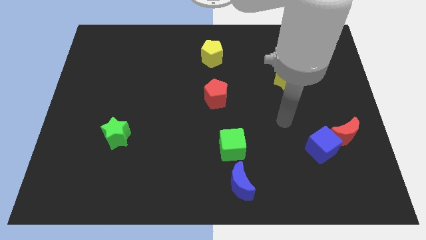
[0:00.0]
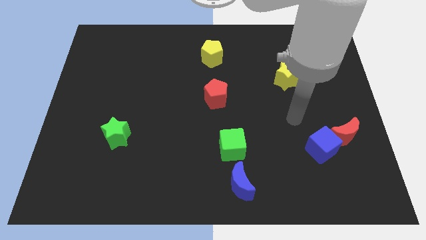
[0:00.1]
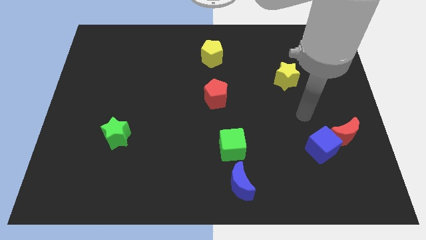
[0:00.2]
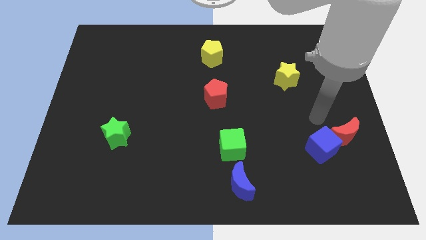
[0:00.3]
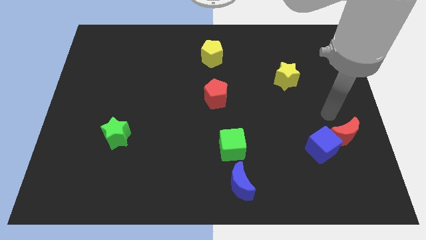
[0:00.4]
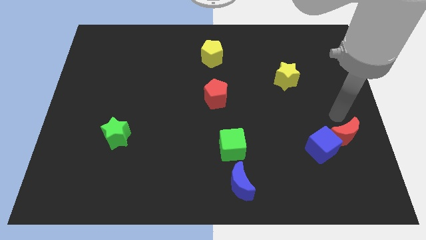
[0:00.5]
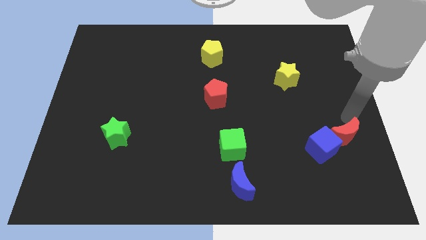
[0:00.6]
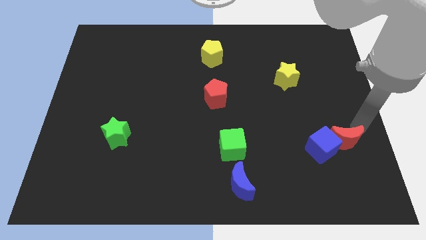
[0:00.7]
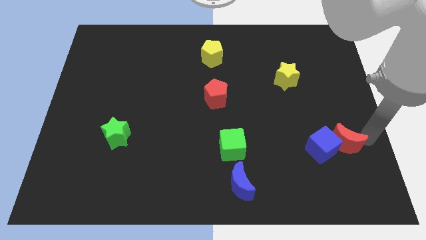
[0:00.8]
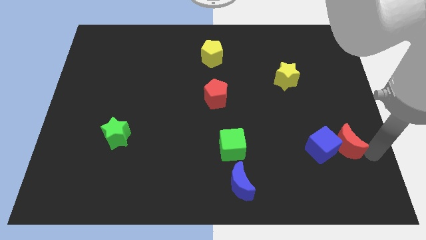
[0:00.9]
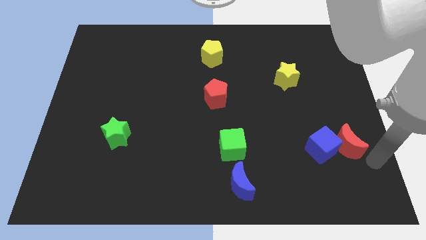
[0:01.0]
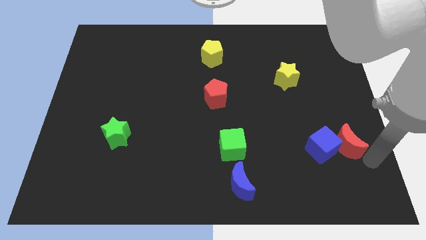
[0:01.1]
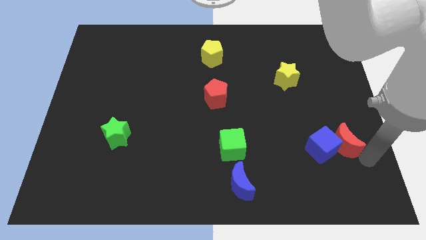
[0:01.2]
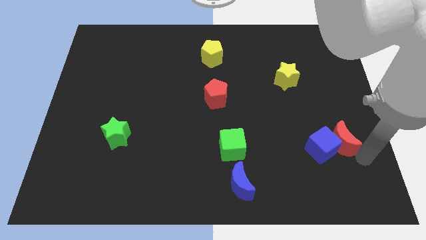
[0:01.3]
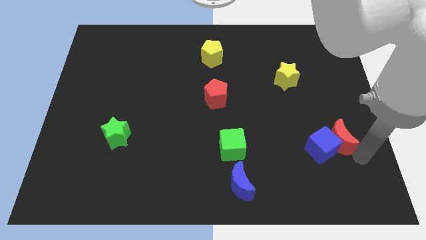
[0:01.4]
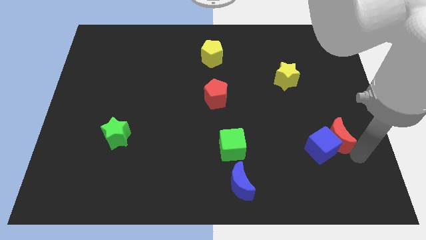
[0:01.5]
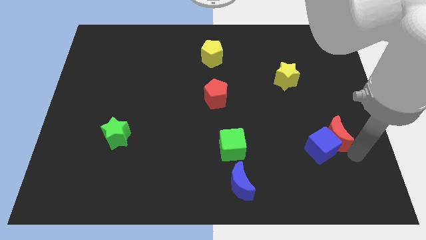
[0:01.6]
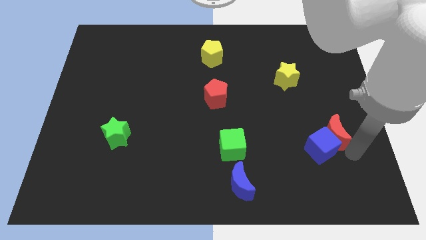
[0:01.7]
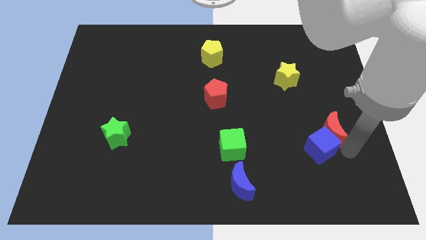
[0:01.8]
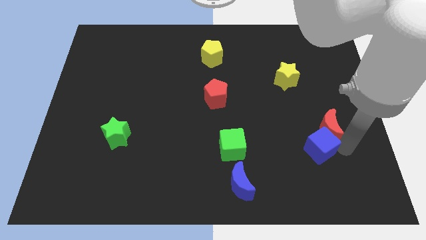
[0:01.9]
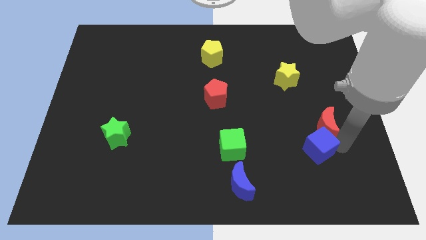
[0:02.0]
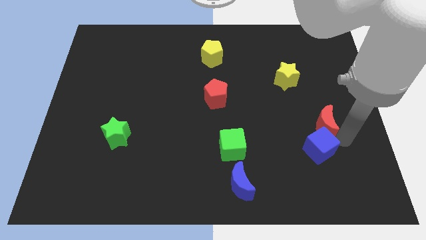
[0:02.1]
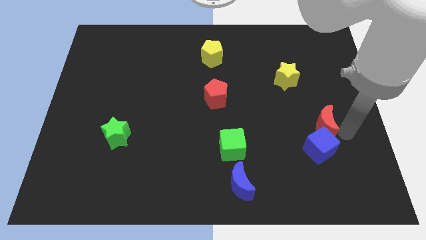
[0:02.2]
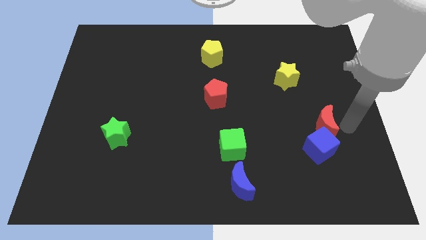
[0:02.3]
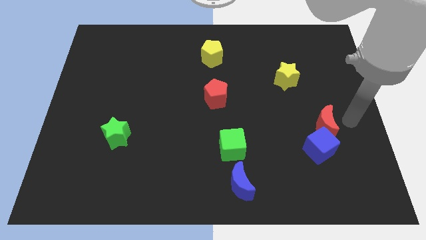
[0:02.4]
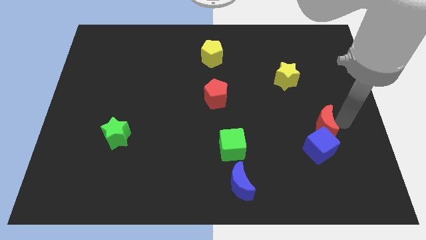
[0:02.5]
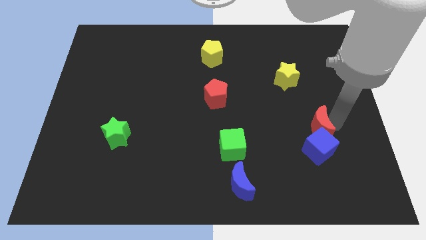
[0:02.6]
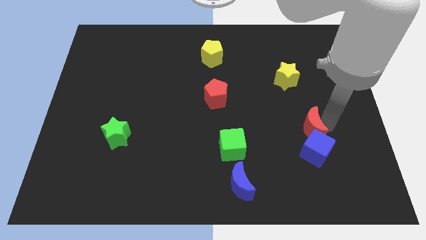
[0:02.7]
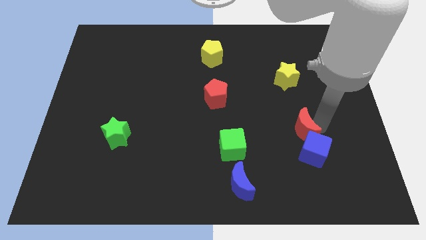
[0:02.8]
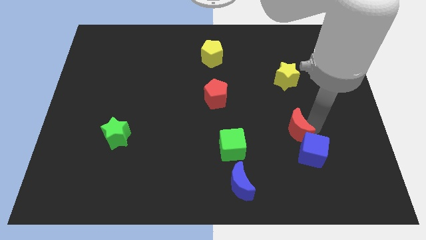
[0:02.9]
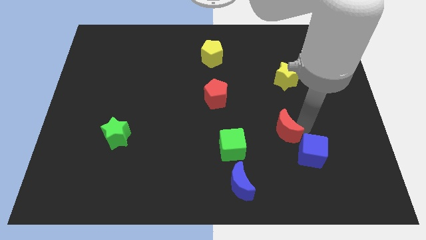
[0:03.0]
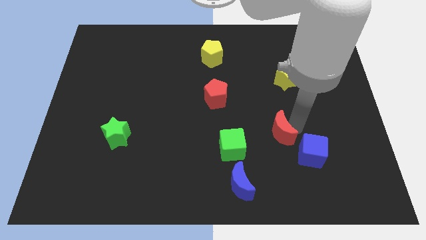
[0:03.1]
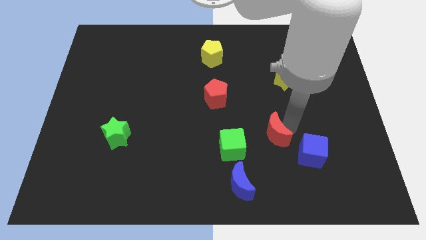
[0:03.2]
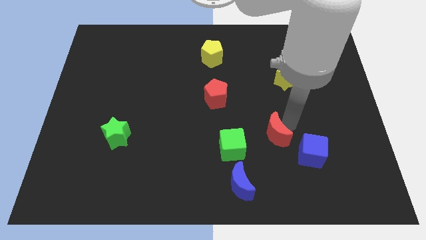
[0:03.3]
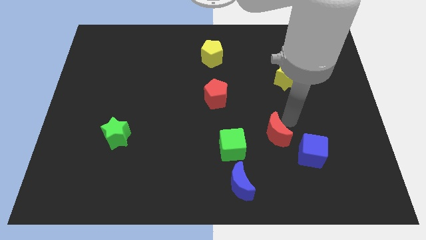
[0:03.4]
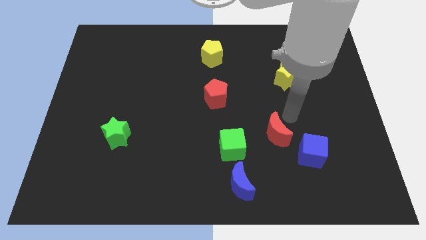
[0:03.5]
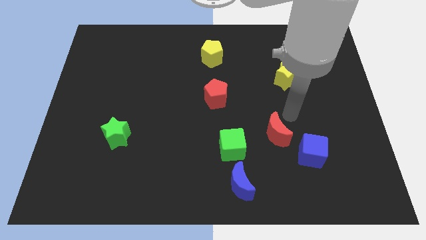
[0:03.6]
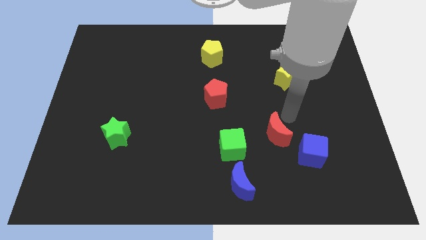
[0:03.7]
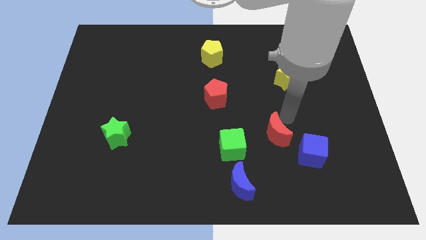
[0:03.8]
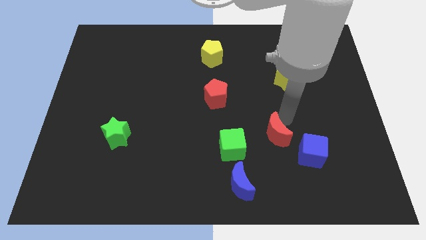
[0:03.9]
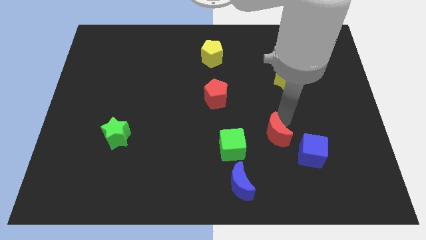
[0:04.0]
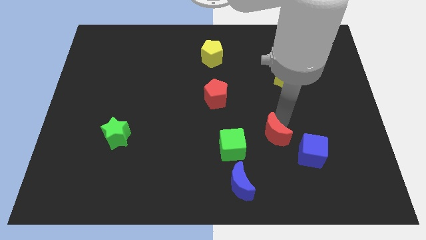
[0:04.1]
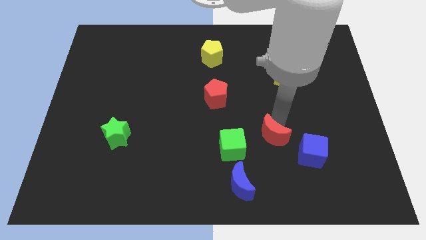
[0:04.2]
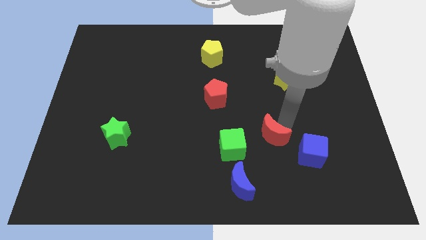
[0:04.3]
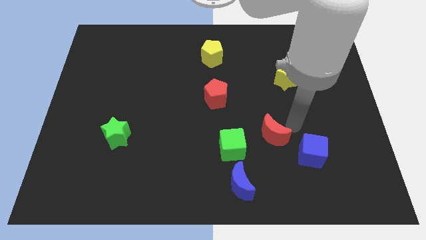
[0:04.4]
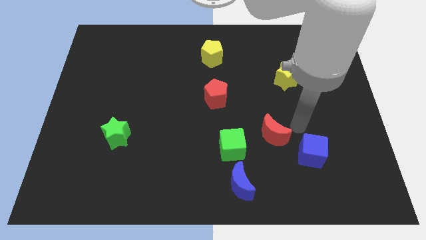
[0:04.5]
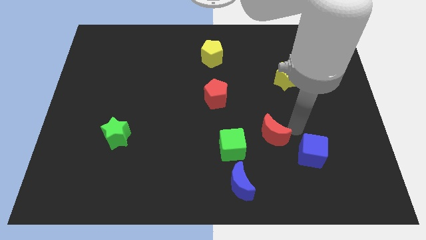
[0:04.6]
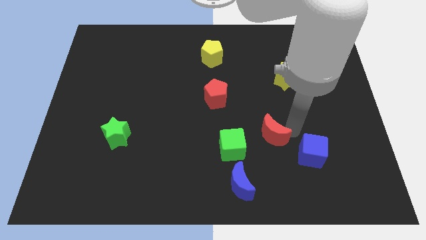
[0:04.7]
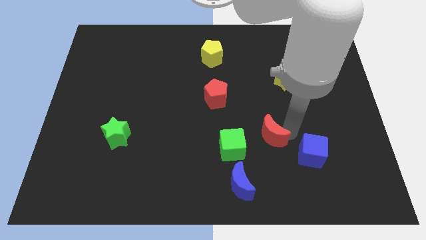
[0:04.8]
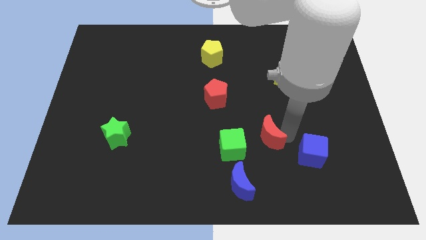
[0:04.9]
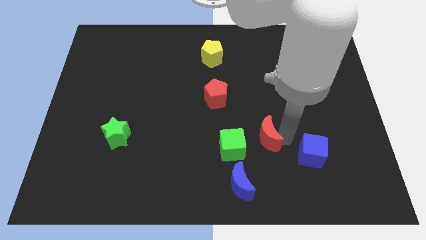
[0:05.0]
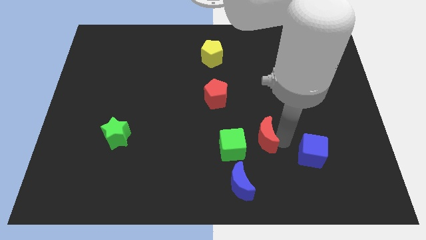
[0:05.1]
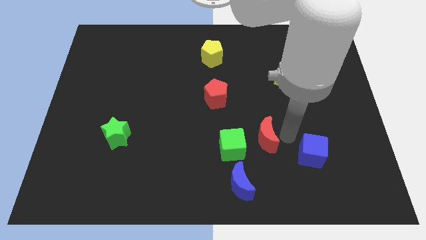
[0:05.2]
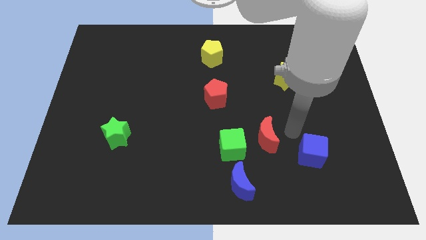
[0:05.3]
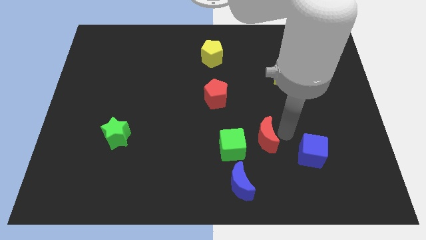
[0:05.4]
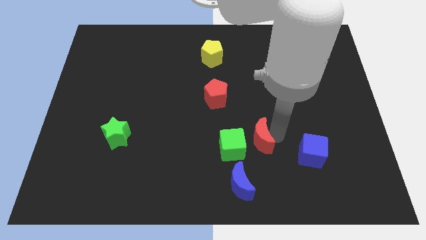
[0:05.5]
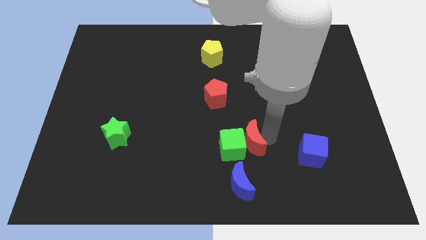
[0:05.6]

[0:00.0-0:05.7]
put the red moon close to the green cube

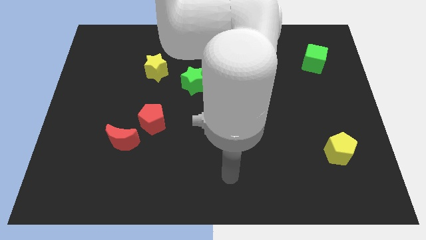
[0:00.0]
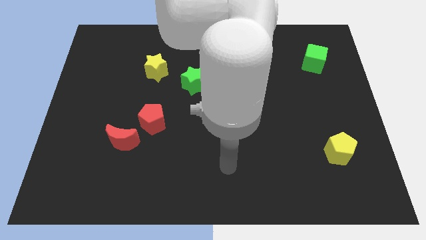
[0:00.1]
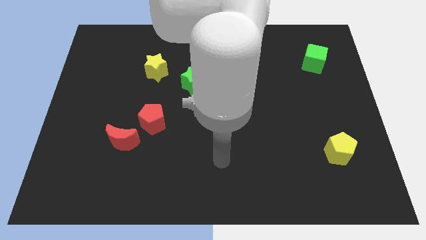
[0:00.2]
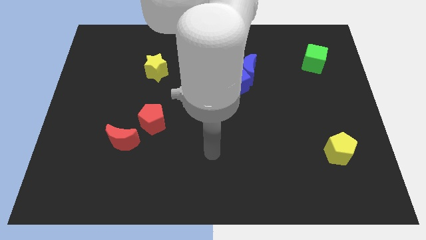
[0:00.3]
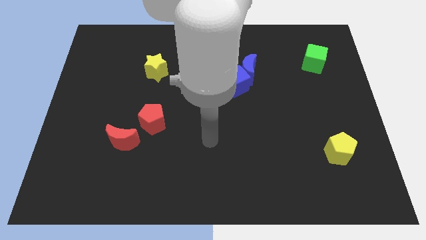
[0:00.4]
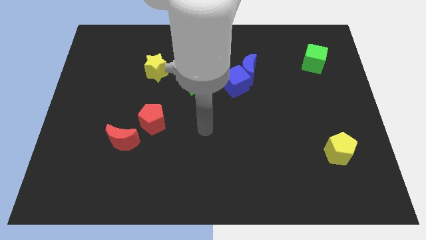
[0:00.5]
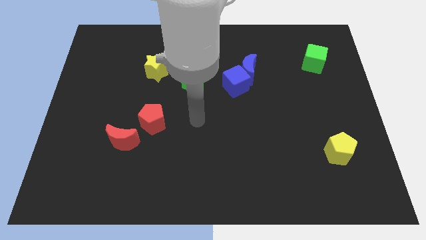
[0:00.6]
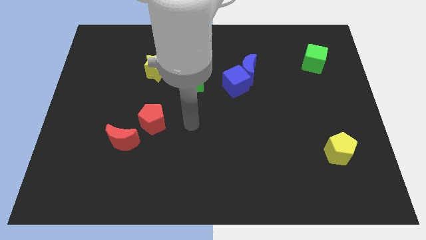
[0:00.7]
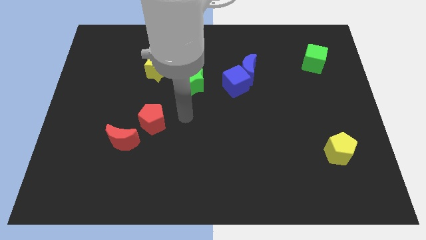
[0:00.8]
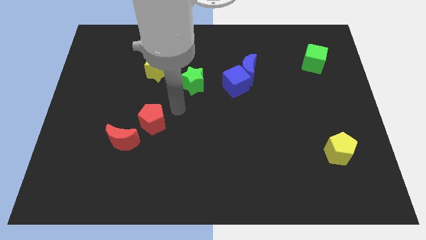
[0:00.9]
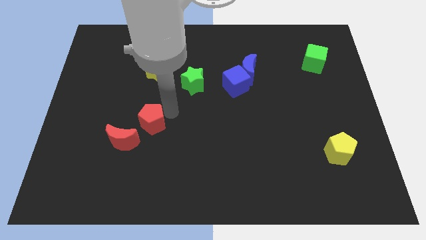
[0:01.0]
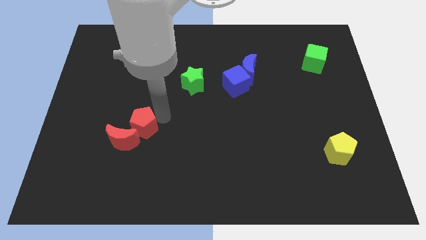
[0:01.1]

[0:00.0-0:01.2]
push the red pentagon close to the red moon
